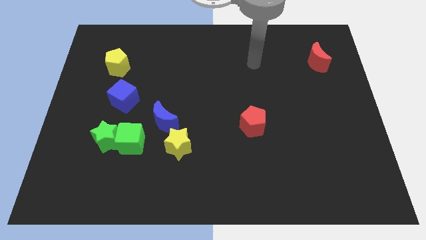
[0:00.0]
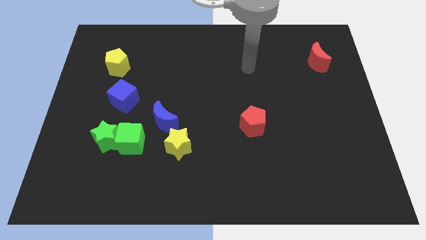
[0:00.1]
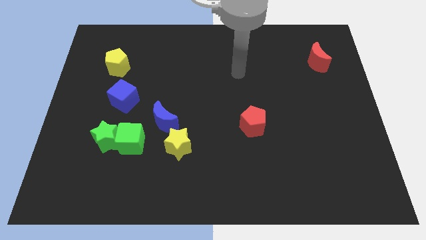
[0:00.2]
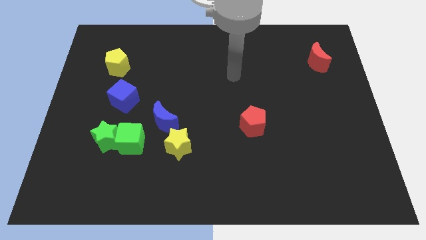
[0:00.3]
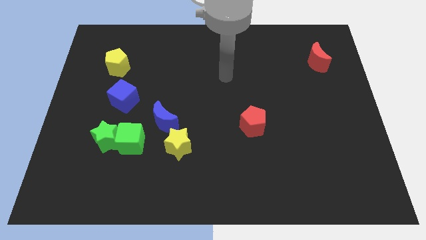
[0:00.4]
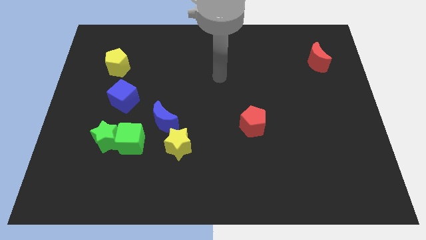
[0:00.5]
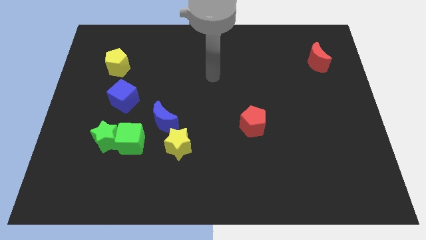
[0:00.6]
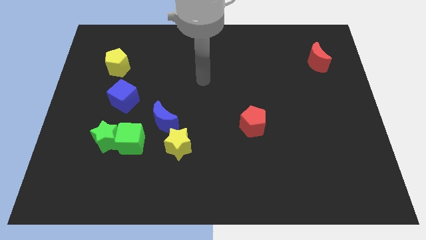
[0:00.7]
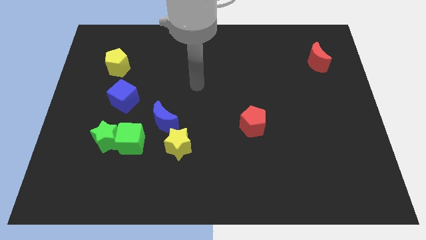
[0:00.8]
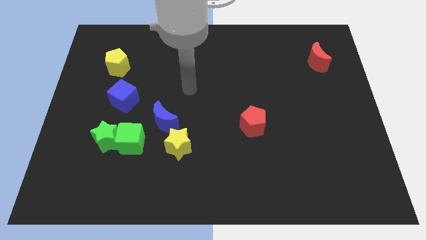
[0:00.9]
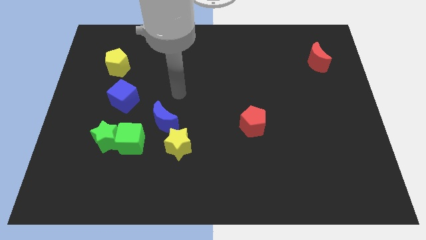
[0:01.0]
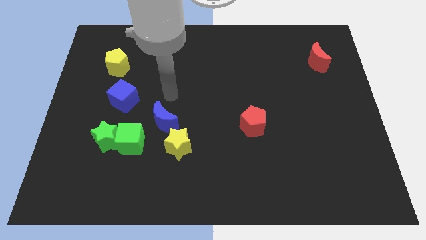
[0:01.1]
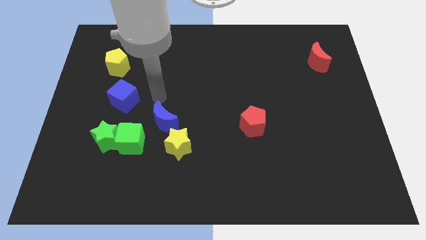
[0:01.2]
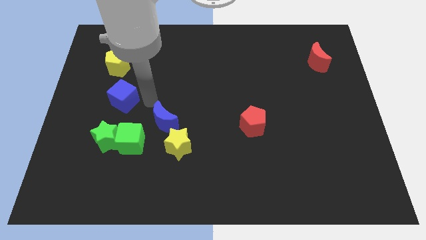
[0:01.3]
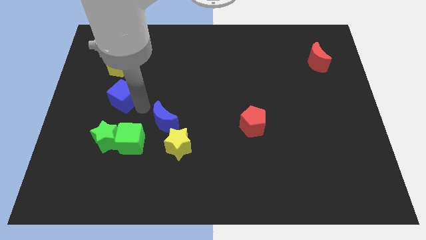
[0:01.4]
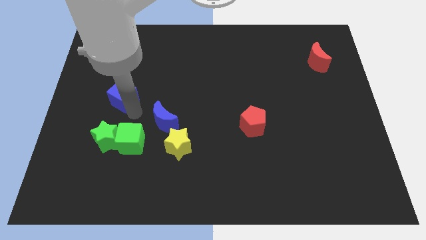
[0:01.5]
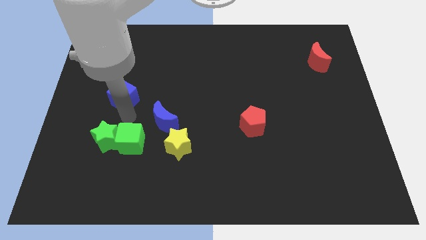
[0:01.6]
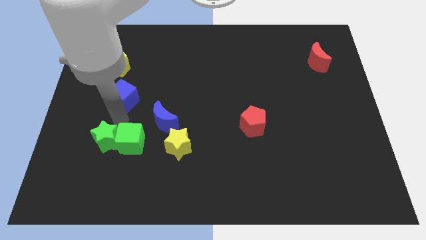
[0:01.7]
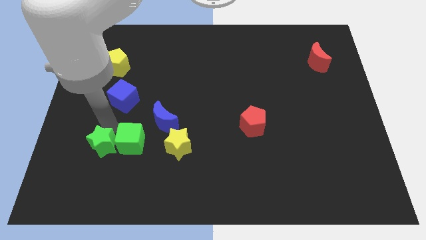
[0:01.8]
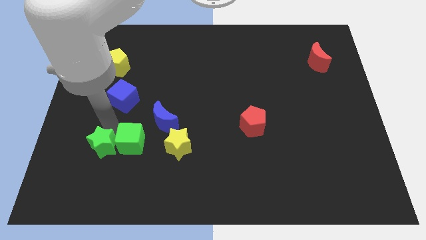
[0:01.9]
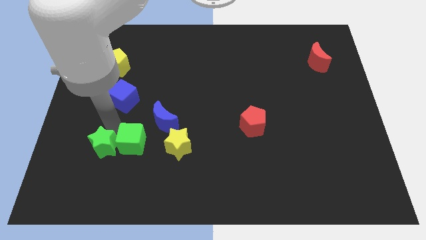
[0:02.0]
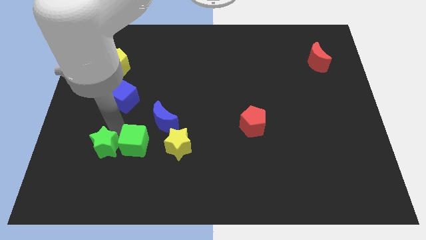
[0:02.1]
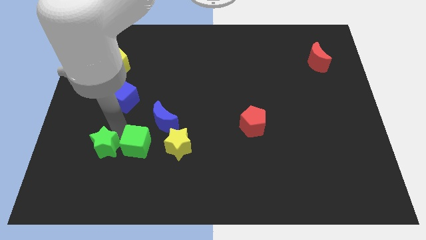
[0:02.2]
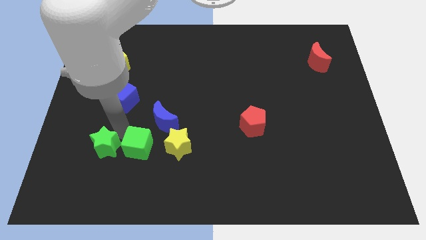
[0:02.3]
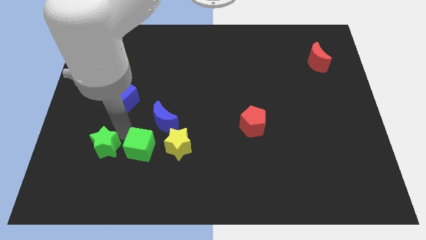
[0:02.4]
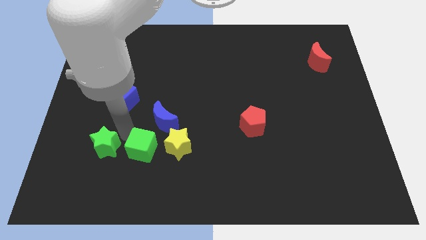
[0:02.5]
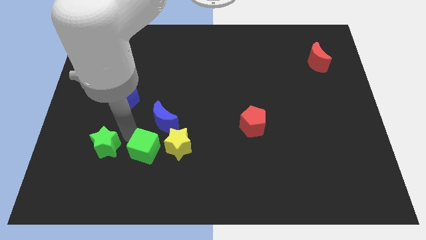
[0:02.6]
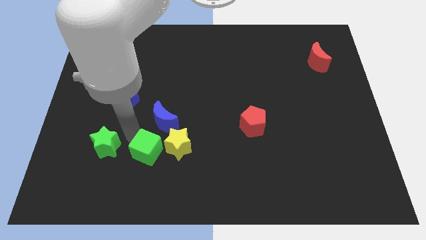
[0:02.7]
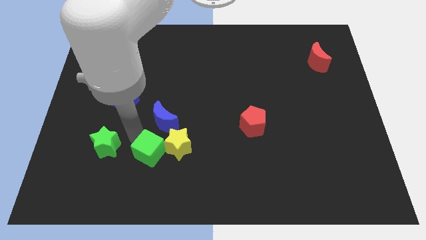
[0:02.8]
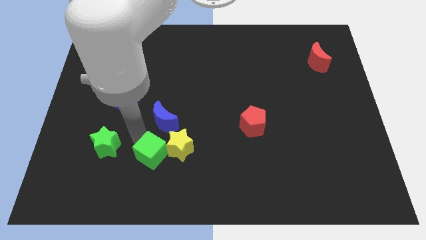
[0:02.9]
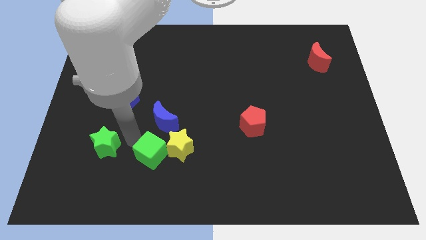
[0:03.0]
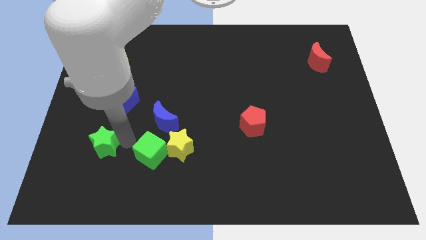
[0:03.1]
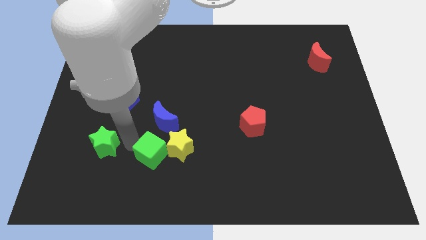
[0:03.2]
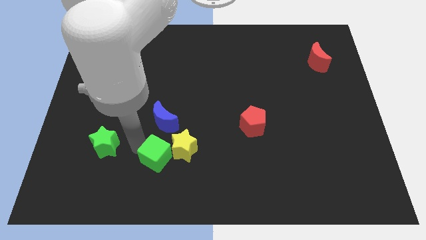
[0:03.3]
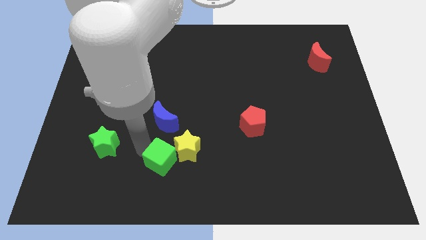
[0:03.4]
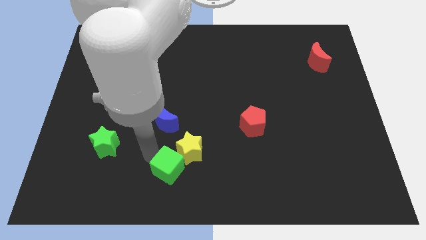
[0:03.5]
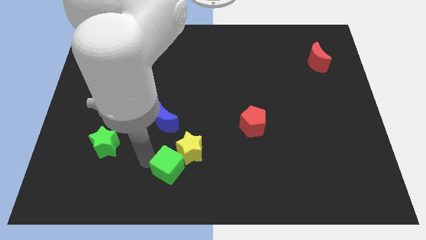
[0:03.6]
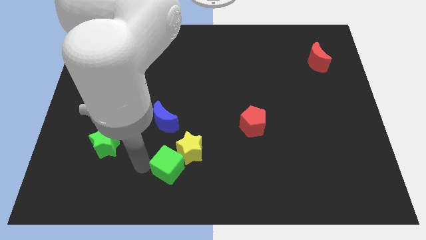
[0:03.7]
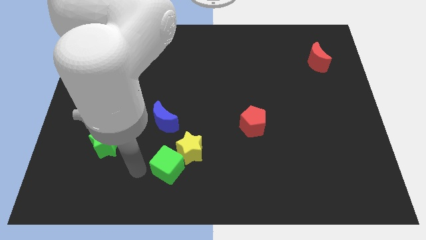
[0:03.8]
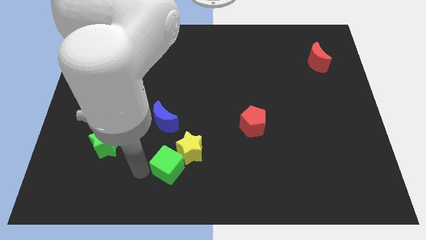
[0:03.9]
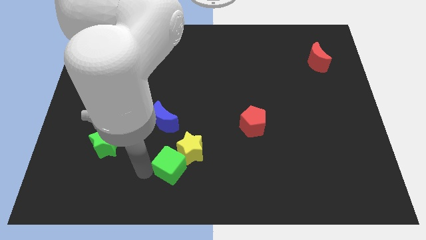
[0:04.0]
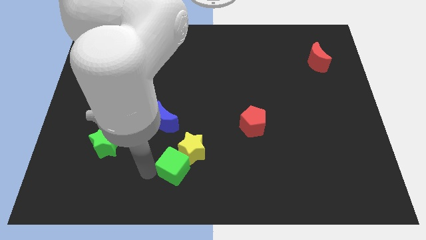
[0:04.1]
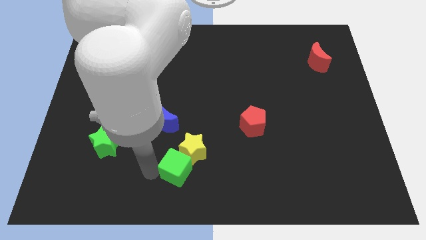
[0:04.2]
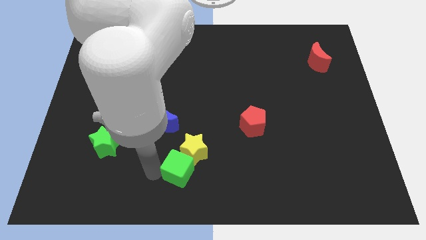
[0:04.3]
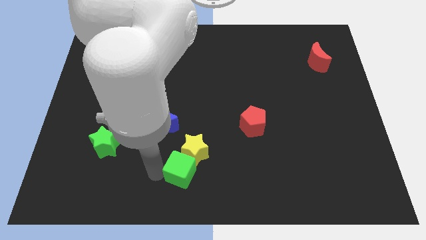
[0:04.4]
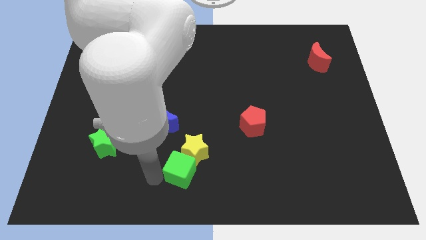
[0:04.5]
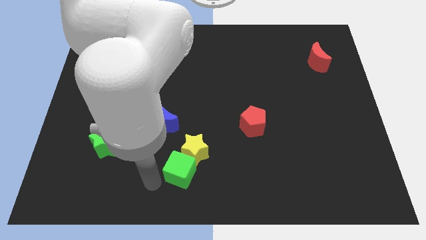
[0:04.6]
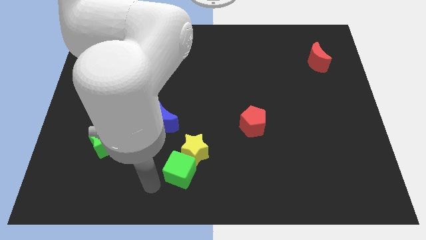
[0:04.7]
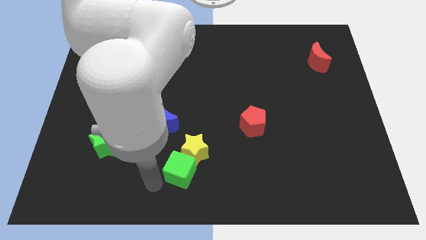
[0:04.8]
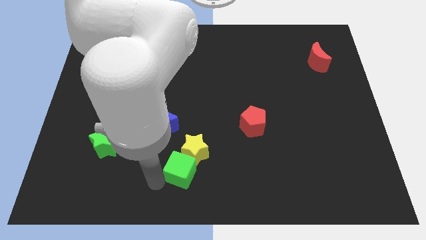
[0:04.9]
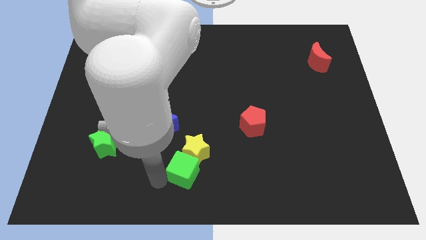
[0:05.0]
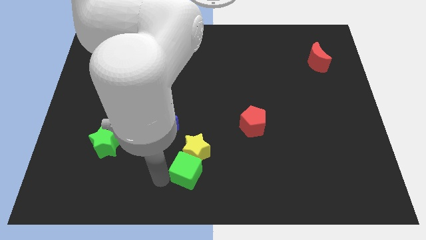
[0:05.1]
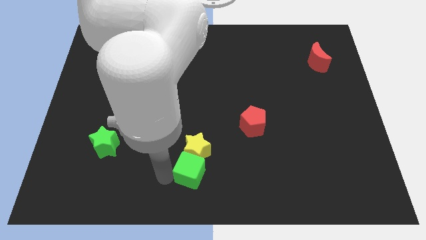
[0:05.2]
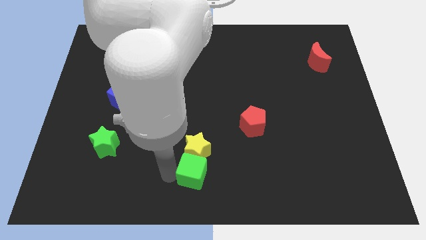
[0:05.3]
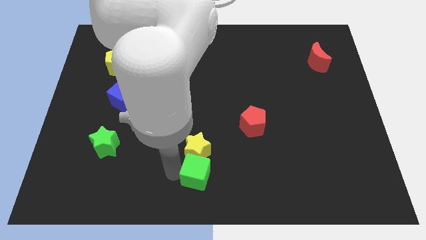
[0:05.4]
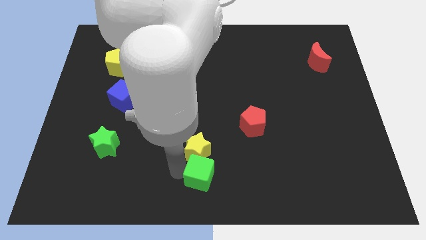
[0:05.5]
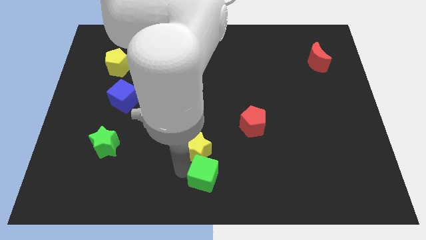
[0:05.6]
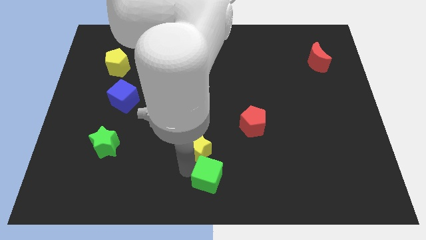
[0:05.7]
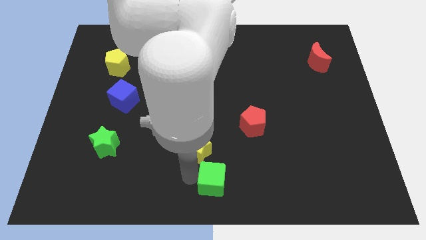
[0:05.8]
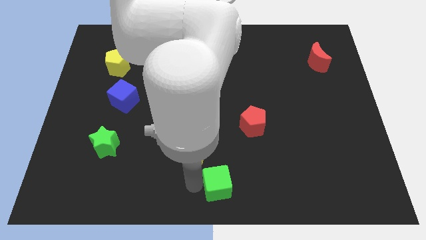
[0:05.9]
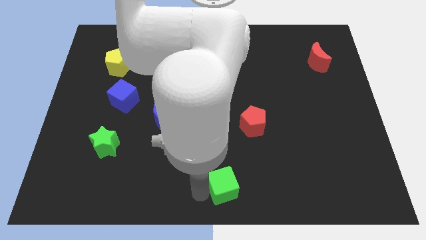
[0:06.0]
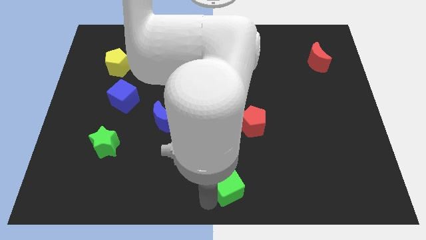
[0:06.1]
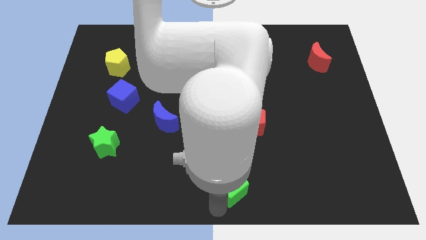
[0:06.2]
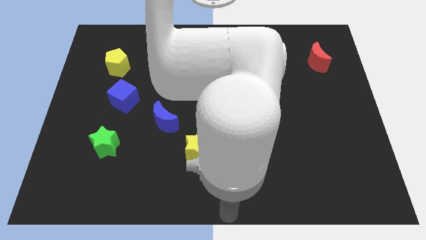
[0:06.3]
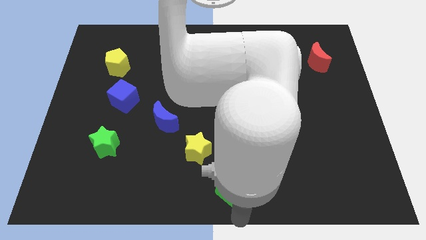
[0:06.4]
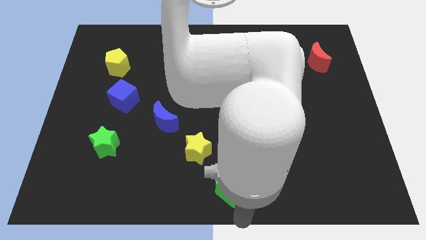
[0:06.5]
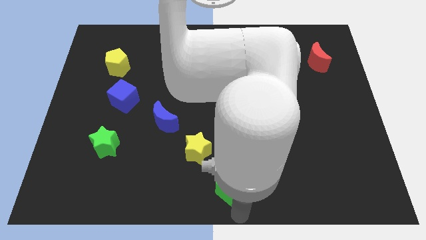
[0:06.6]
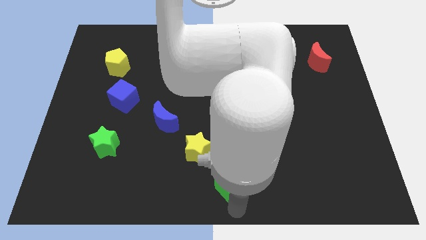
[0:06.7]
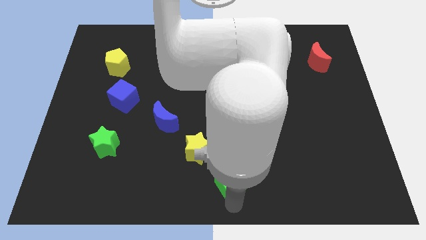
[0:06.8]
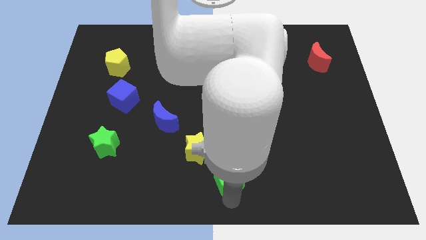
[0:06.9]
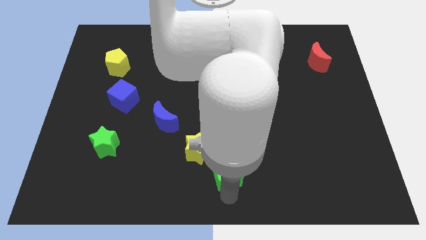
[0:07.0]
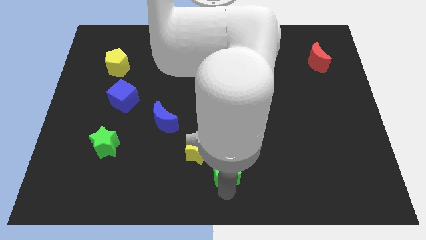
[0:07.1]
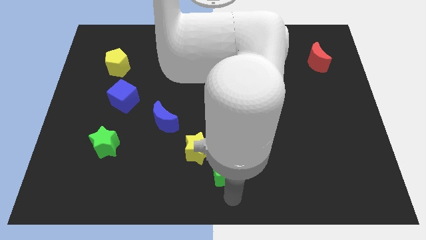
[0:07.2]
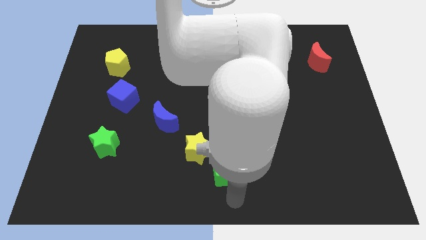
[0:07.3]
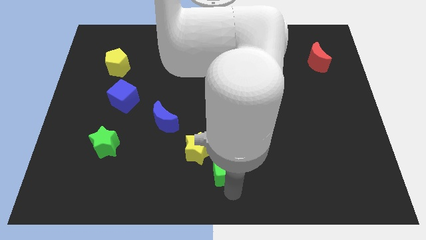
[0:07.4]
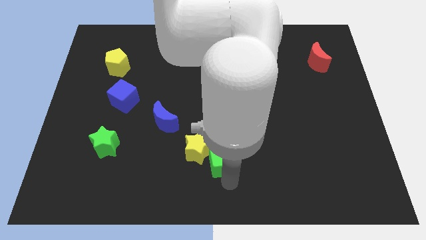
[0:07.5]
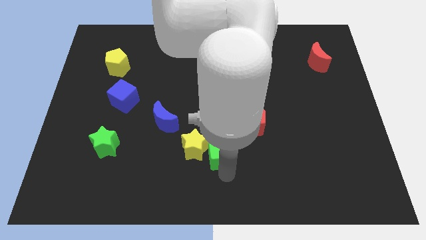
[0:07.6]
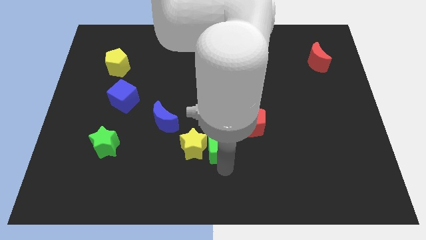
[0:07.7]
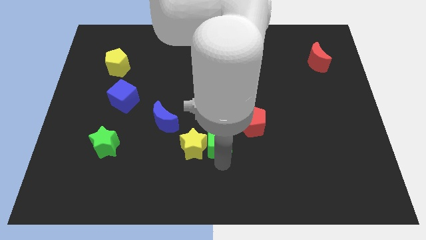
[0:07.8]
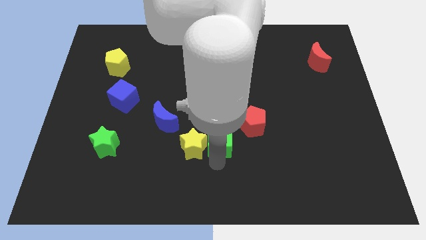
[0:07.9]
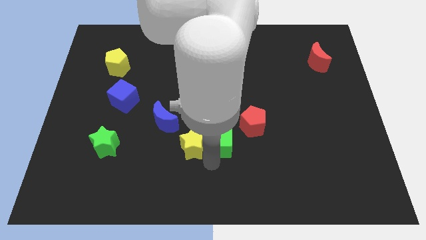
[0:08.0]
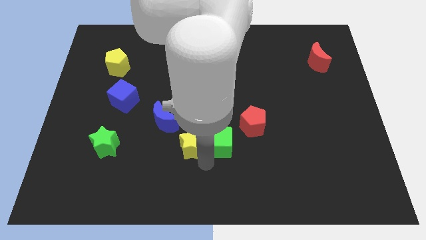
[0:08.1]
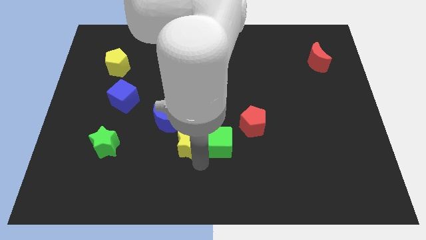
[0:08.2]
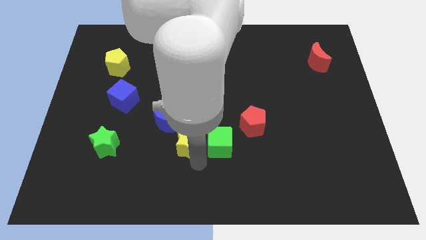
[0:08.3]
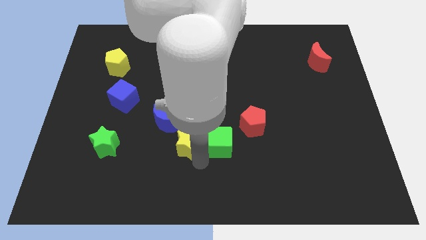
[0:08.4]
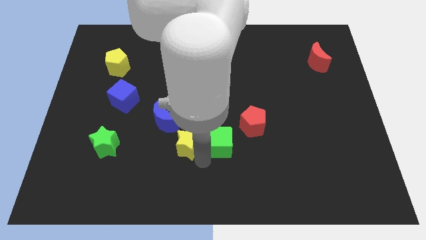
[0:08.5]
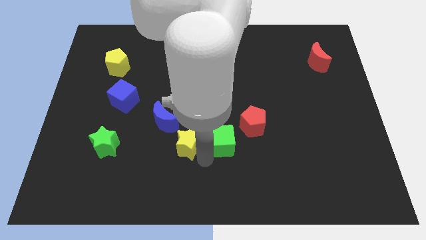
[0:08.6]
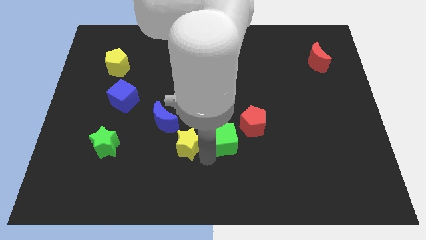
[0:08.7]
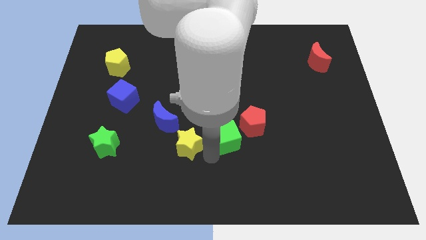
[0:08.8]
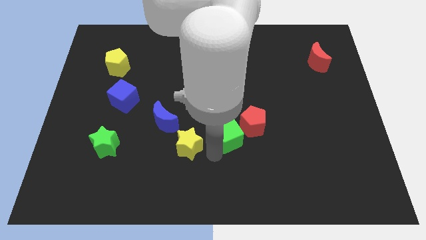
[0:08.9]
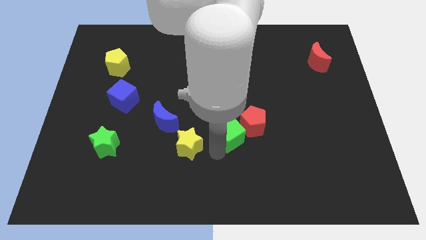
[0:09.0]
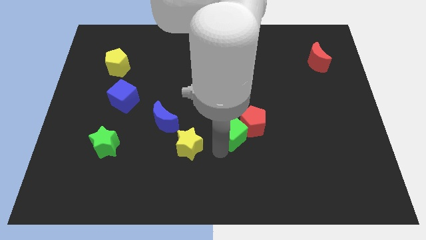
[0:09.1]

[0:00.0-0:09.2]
push the green cube towards the red pentagon
